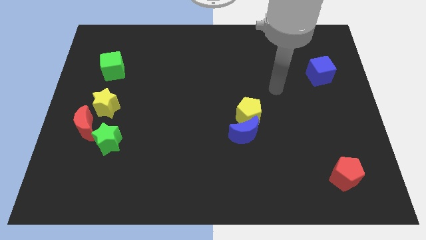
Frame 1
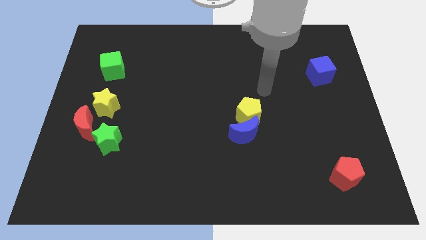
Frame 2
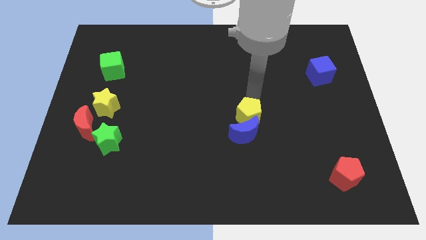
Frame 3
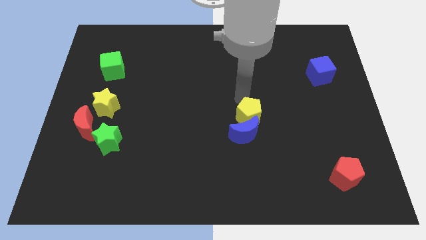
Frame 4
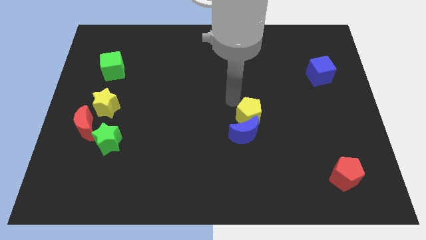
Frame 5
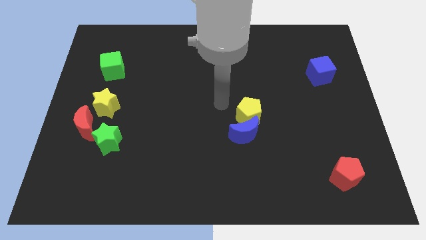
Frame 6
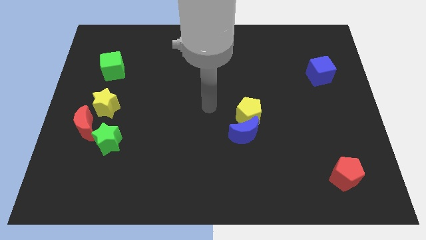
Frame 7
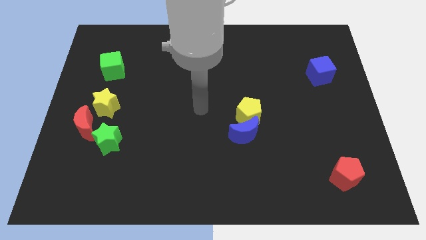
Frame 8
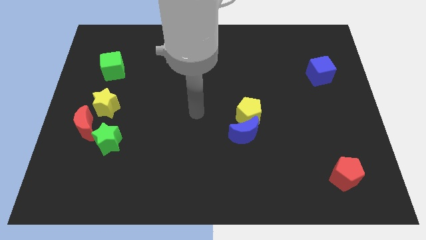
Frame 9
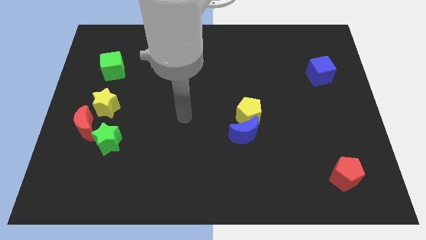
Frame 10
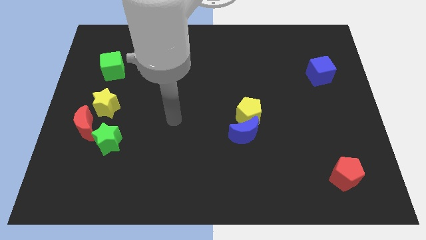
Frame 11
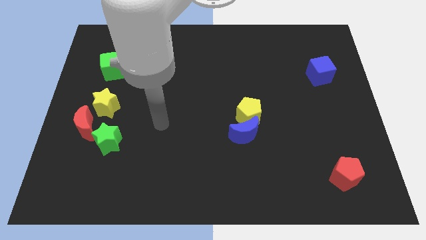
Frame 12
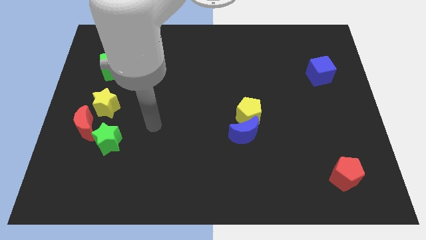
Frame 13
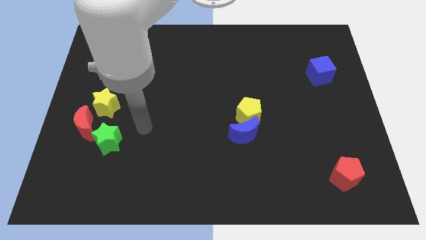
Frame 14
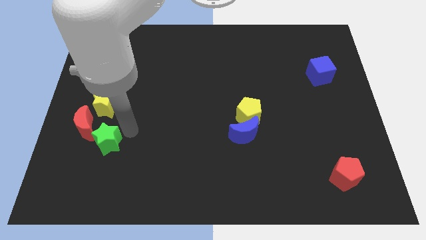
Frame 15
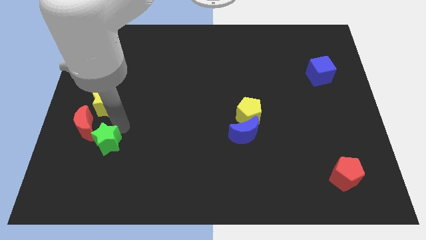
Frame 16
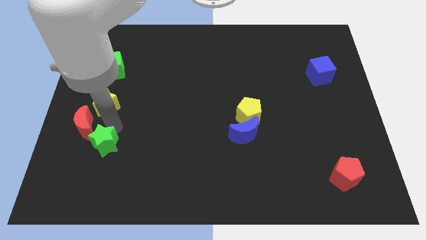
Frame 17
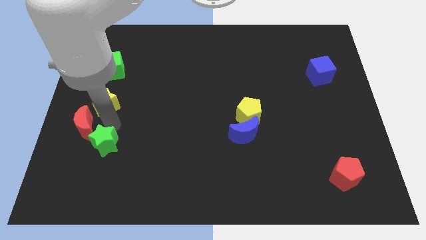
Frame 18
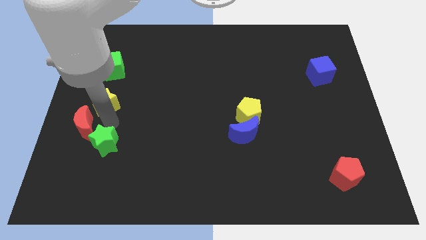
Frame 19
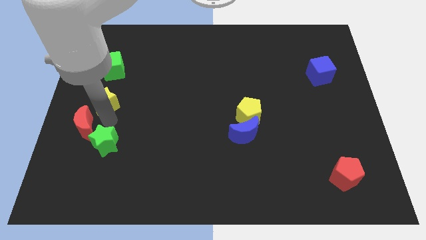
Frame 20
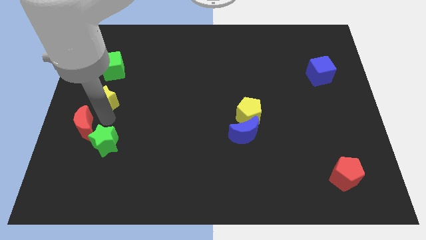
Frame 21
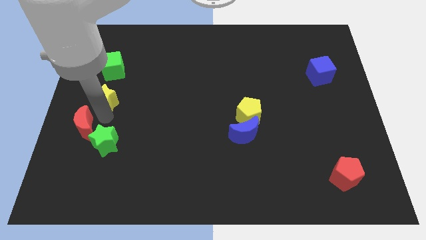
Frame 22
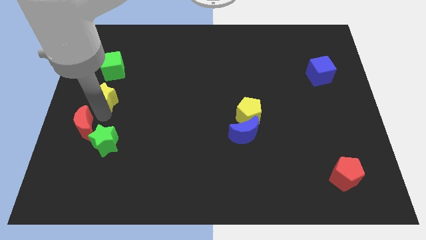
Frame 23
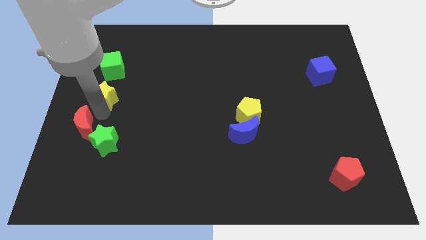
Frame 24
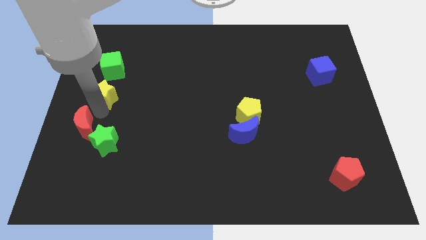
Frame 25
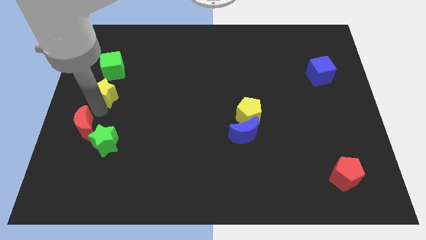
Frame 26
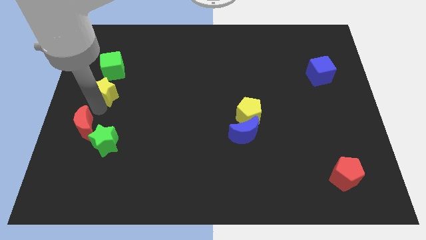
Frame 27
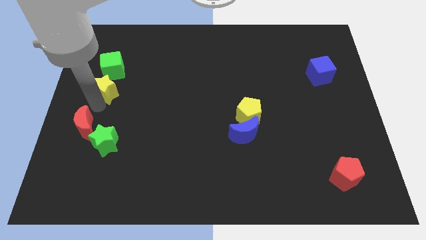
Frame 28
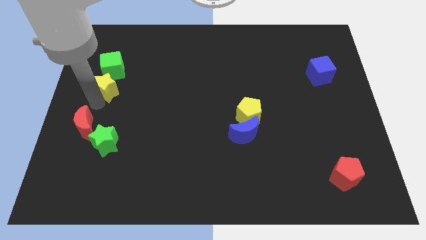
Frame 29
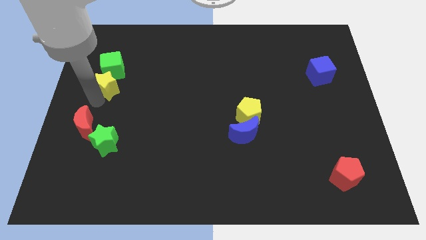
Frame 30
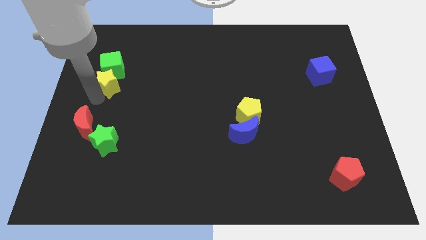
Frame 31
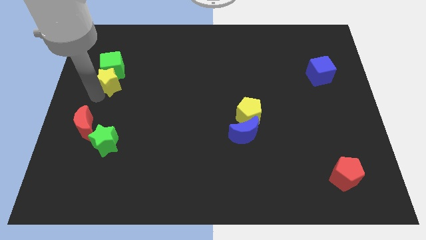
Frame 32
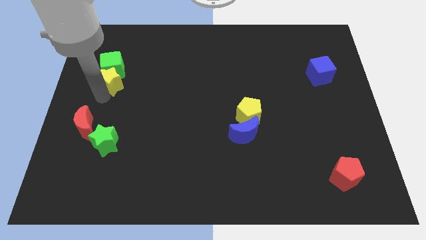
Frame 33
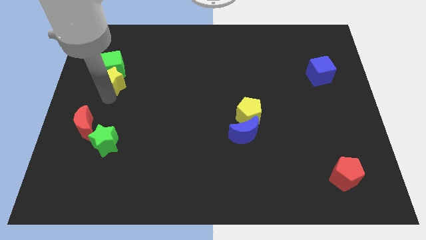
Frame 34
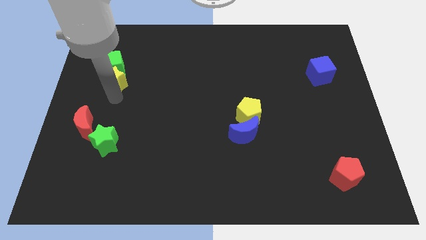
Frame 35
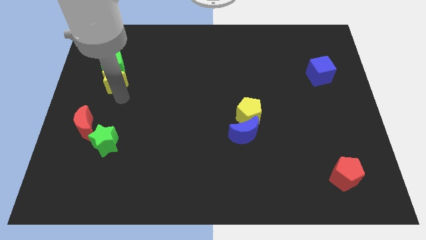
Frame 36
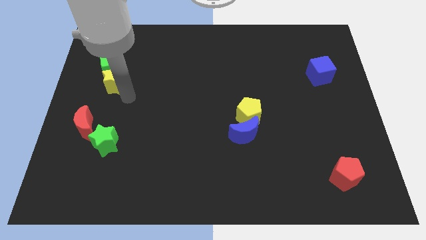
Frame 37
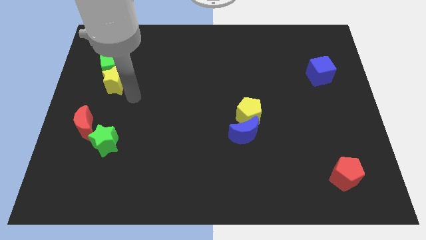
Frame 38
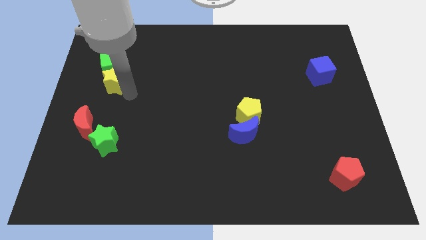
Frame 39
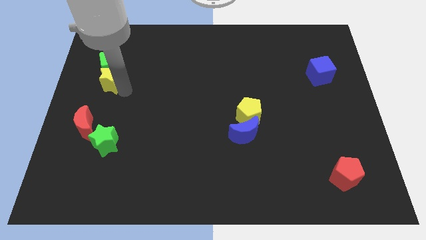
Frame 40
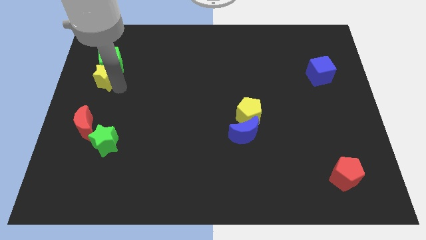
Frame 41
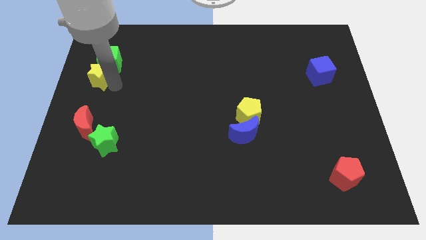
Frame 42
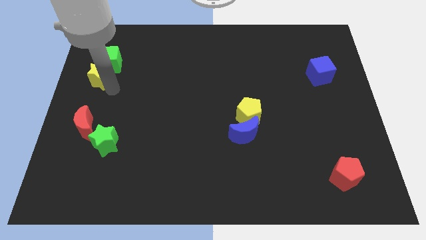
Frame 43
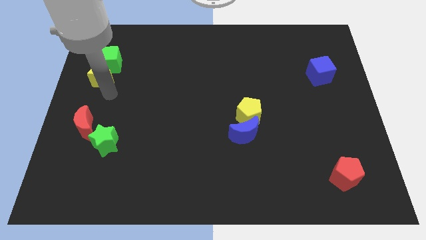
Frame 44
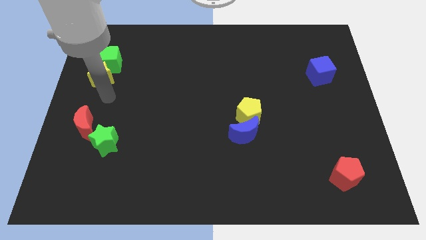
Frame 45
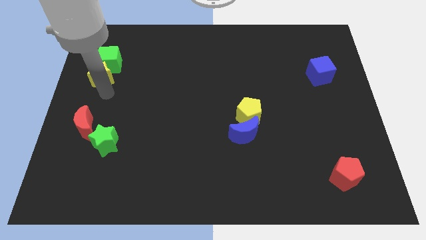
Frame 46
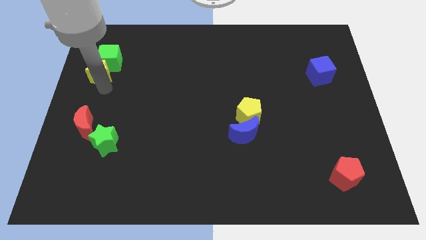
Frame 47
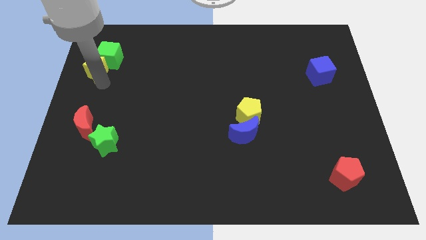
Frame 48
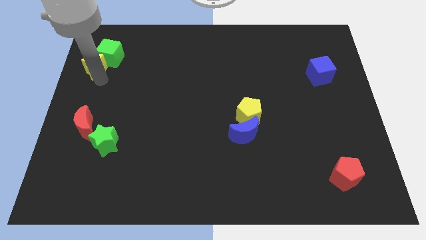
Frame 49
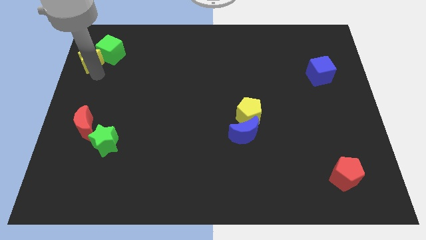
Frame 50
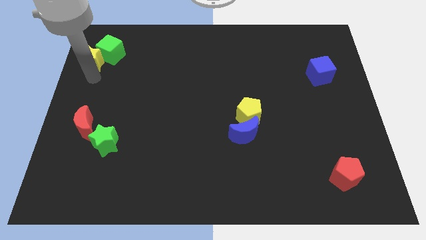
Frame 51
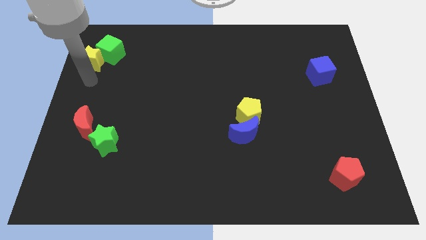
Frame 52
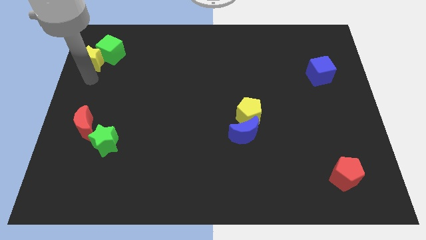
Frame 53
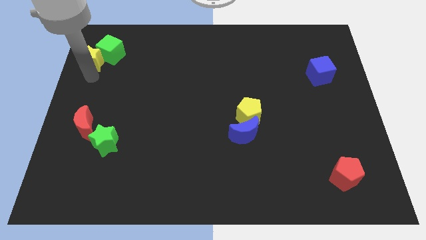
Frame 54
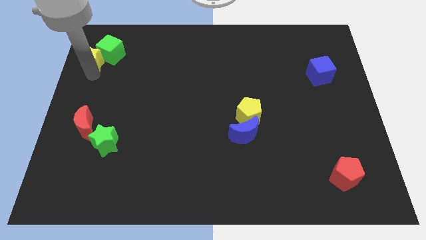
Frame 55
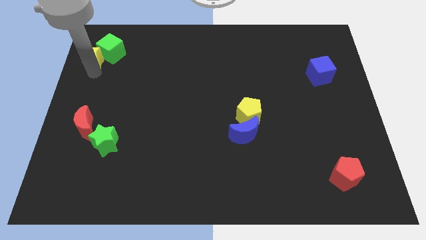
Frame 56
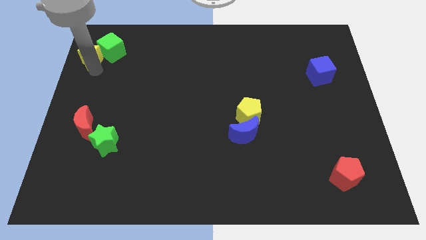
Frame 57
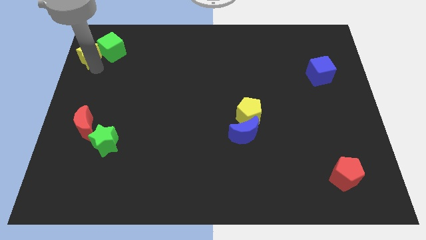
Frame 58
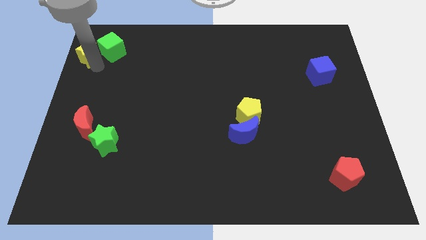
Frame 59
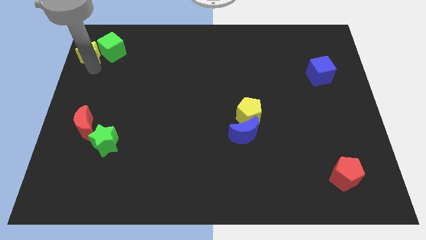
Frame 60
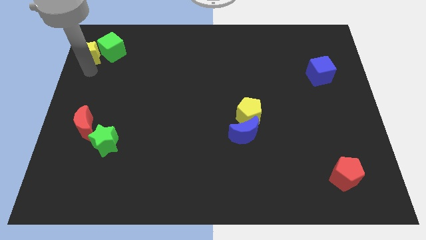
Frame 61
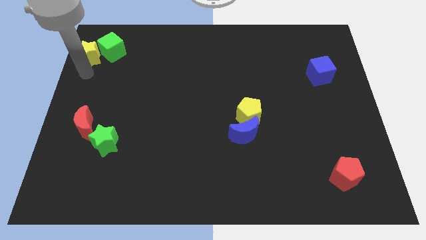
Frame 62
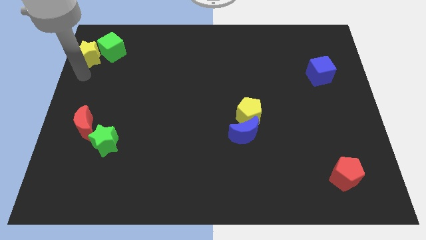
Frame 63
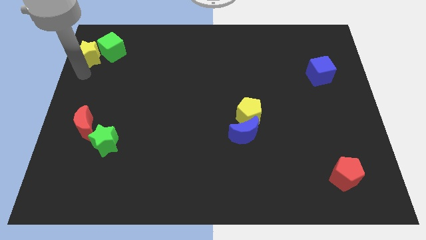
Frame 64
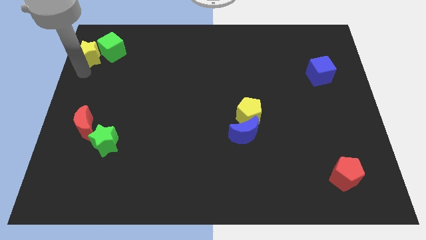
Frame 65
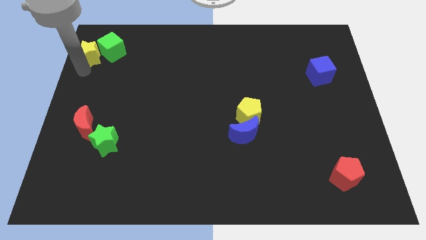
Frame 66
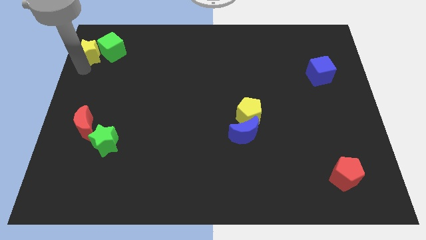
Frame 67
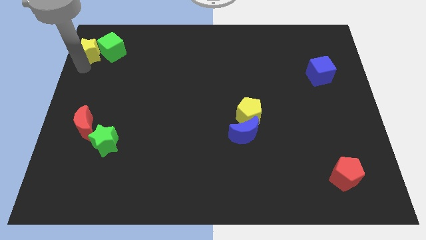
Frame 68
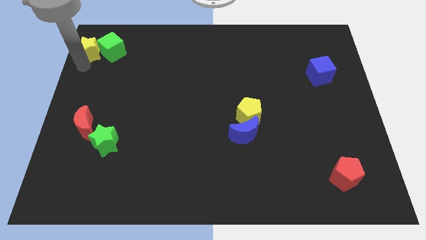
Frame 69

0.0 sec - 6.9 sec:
push the yellow star to the top left
